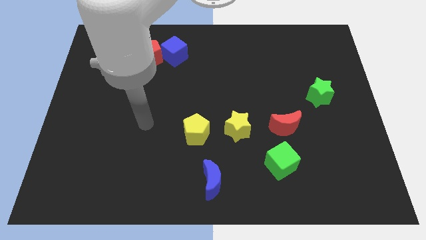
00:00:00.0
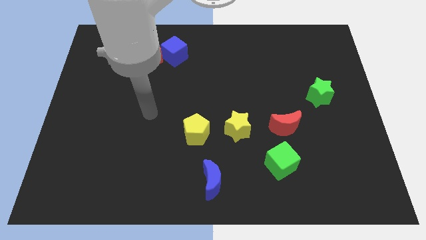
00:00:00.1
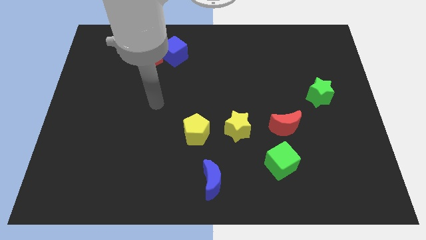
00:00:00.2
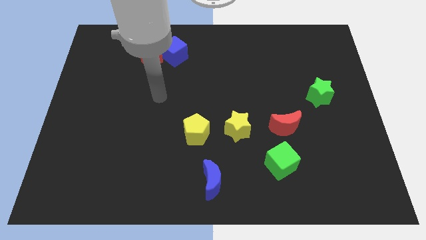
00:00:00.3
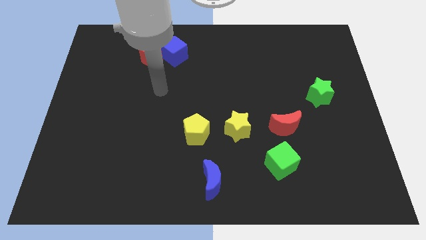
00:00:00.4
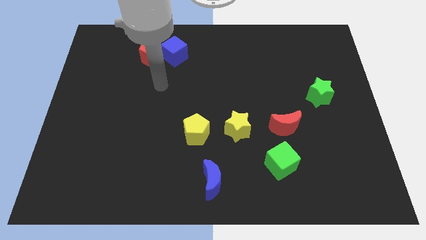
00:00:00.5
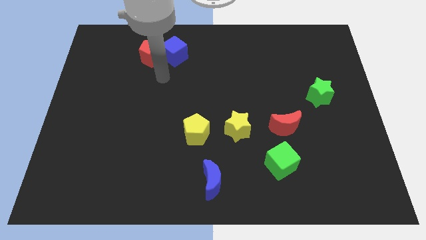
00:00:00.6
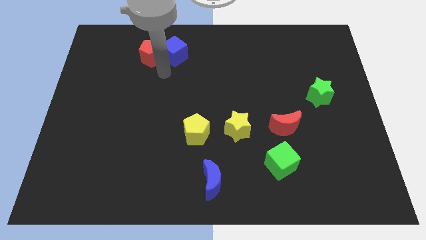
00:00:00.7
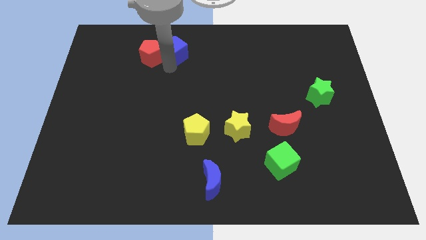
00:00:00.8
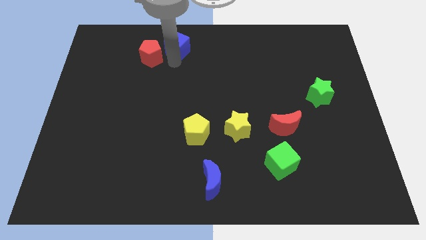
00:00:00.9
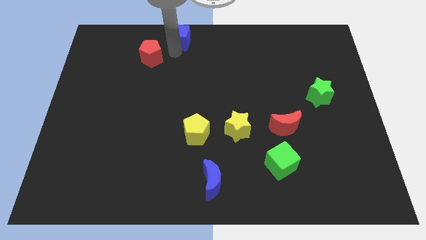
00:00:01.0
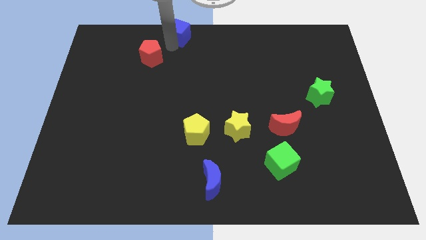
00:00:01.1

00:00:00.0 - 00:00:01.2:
pull the red pentagon apart from the blue cube

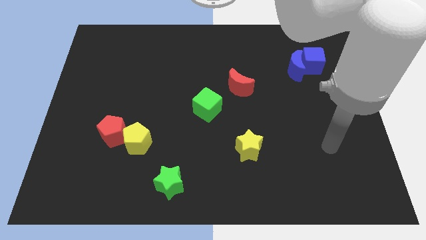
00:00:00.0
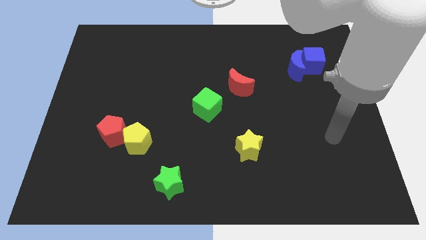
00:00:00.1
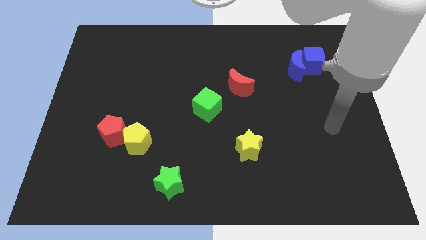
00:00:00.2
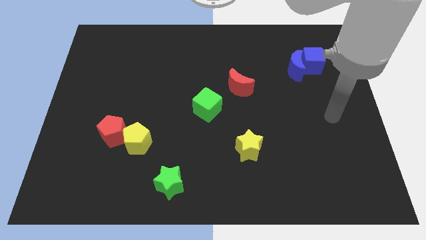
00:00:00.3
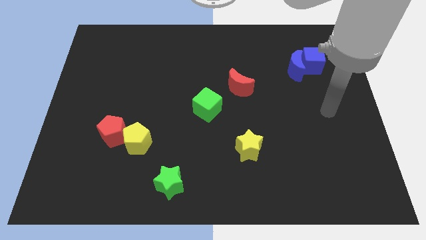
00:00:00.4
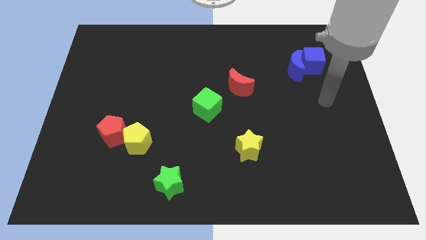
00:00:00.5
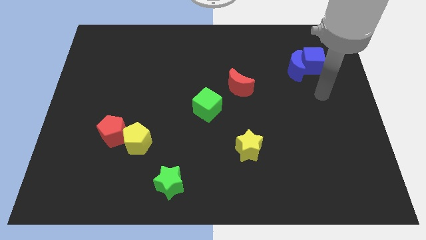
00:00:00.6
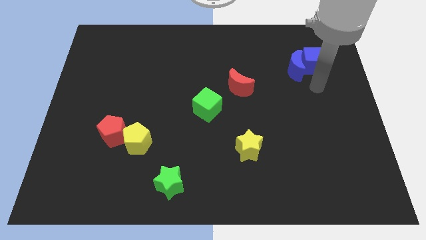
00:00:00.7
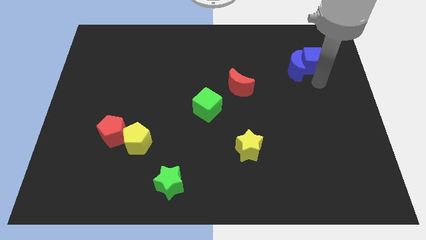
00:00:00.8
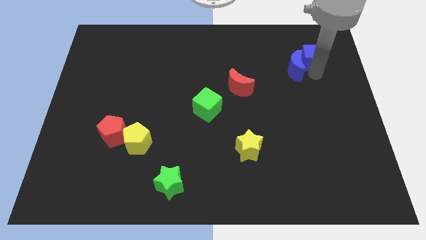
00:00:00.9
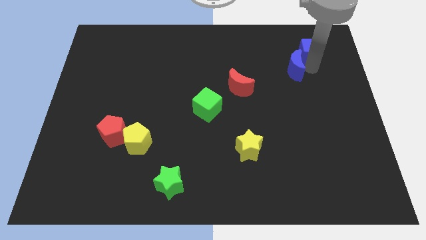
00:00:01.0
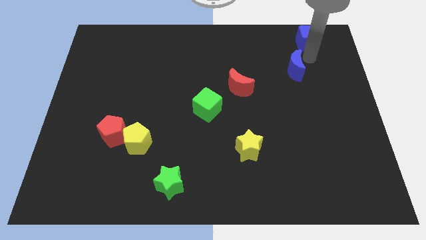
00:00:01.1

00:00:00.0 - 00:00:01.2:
separate the blue moon from the blue cube

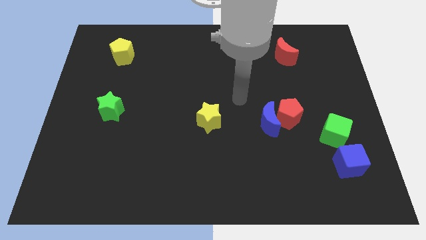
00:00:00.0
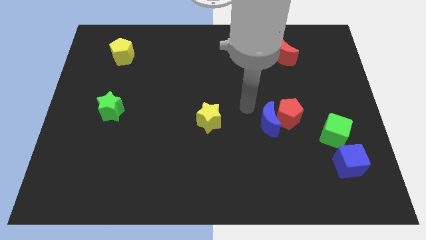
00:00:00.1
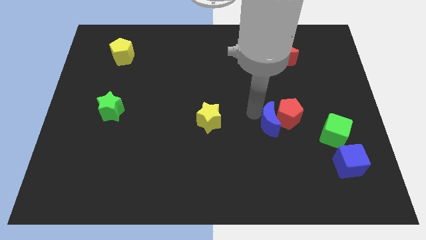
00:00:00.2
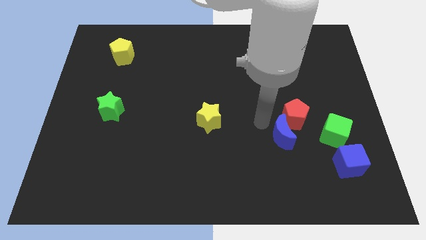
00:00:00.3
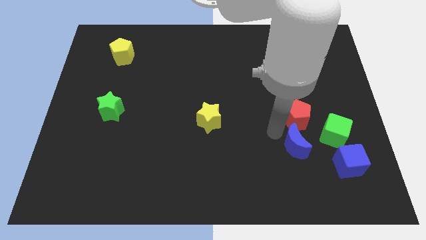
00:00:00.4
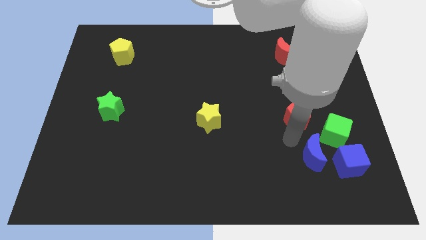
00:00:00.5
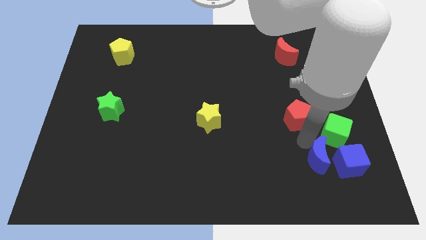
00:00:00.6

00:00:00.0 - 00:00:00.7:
move the red pentagon away from the blue moon

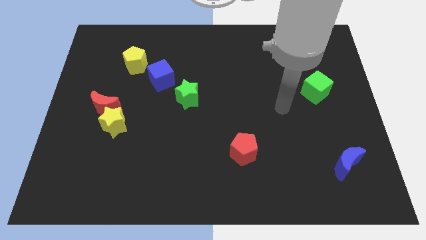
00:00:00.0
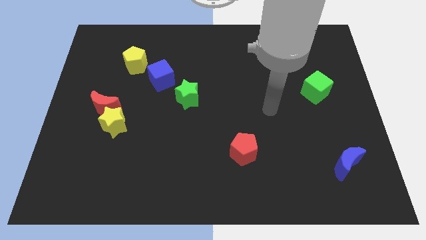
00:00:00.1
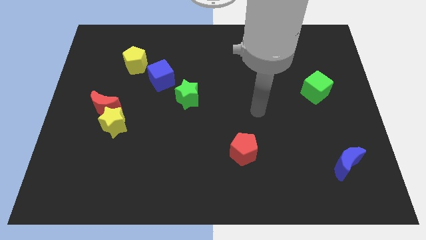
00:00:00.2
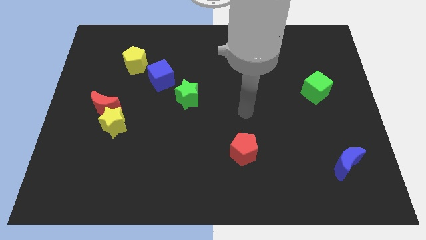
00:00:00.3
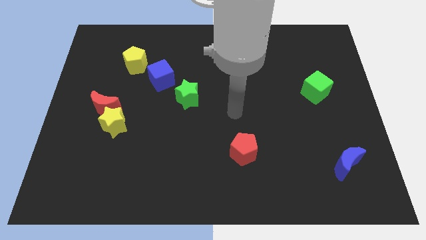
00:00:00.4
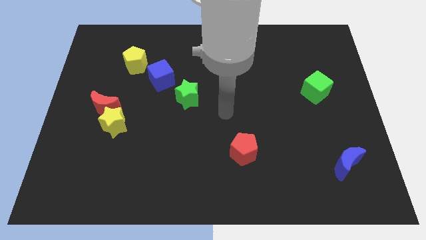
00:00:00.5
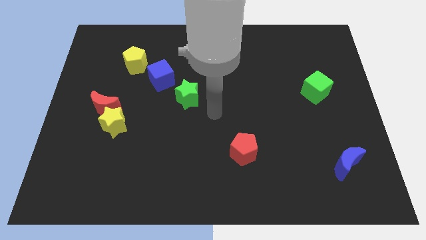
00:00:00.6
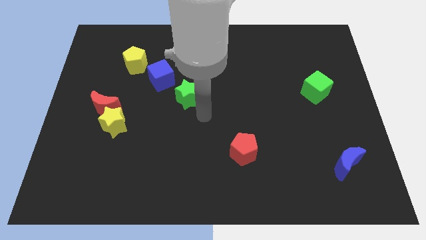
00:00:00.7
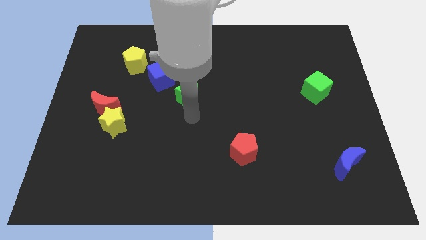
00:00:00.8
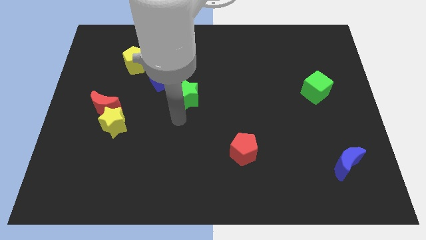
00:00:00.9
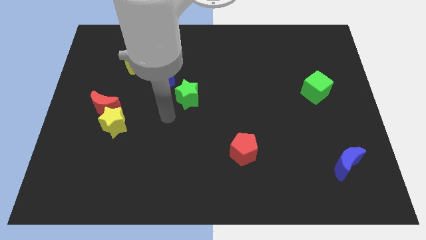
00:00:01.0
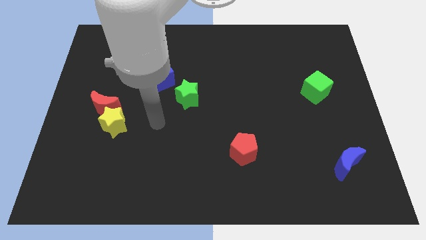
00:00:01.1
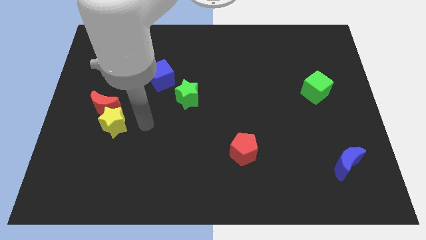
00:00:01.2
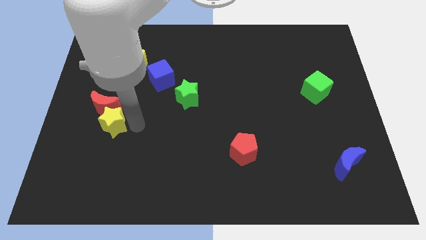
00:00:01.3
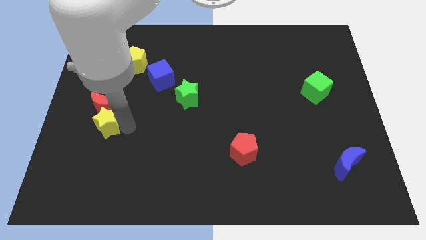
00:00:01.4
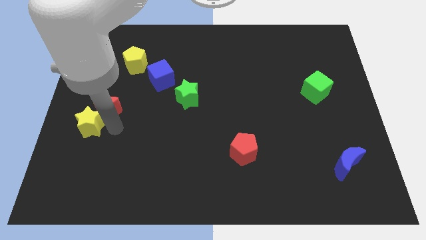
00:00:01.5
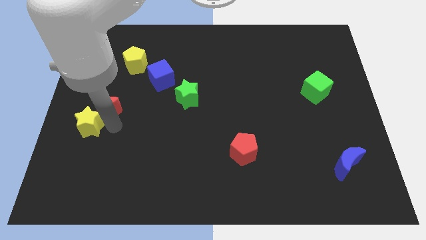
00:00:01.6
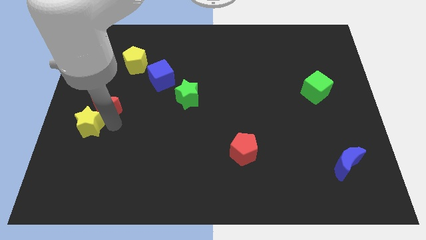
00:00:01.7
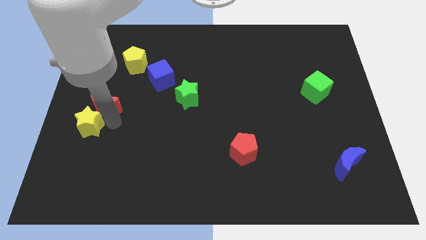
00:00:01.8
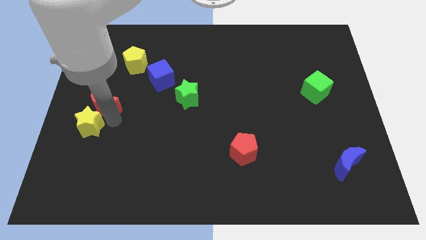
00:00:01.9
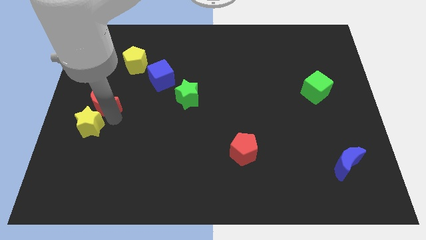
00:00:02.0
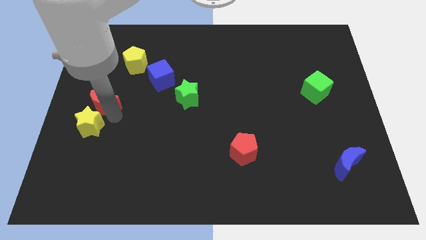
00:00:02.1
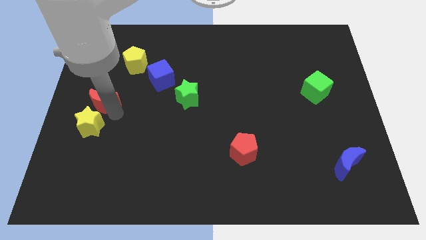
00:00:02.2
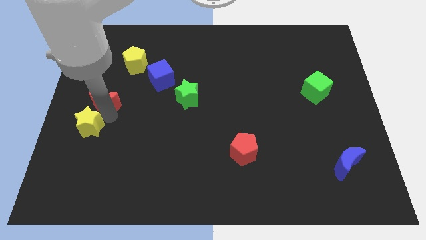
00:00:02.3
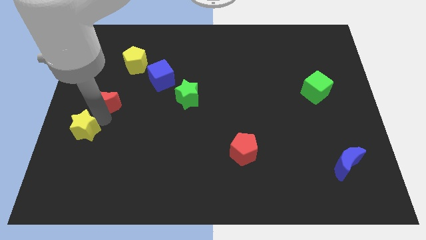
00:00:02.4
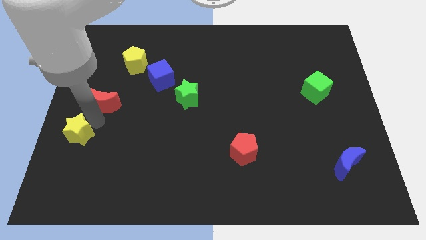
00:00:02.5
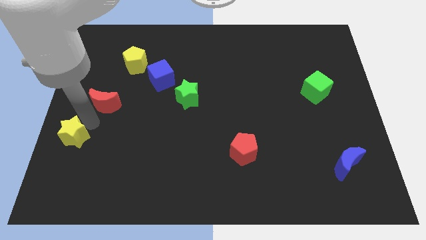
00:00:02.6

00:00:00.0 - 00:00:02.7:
pull the red moon apart from the yellow star

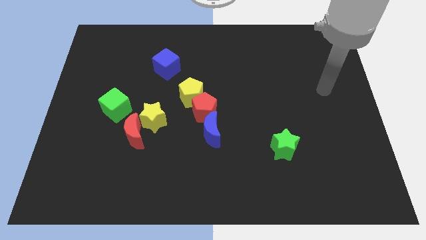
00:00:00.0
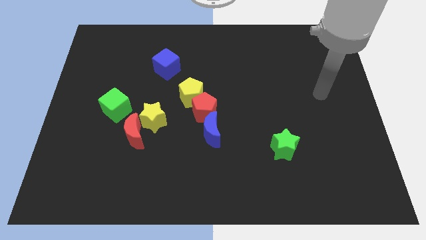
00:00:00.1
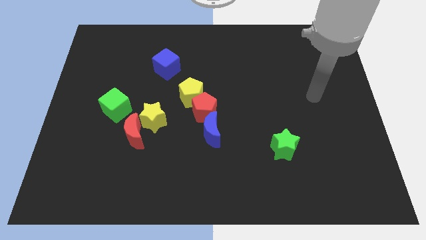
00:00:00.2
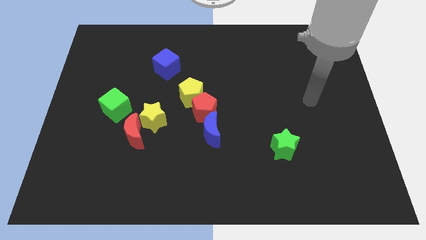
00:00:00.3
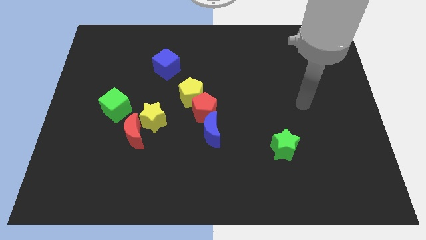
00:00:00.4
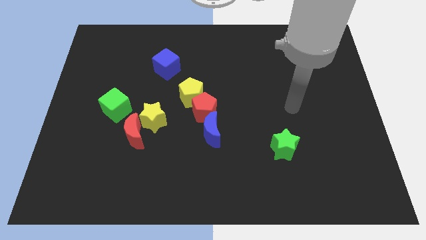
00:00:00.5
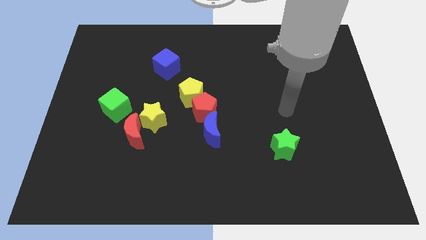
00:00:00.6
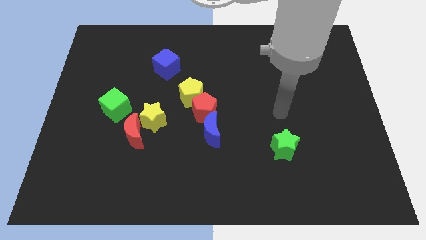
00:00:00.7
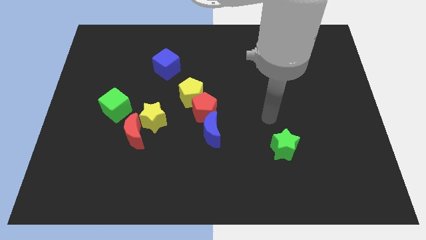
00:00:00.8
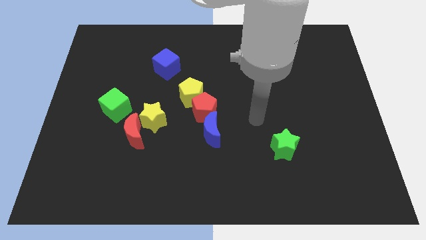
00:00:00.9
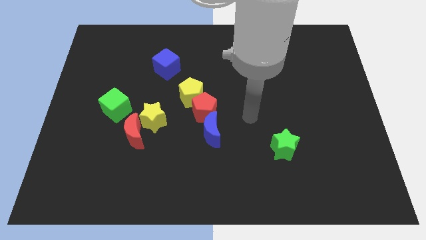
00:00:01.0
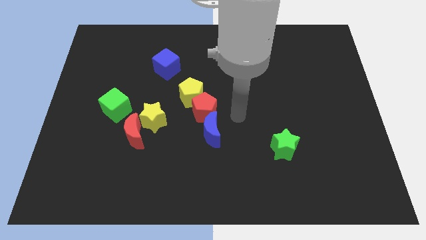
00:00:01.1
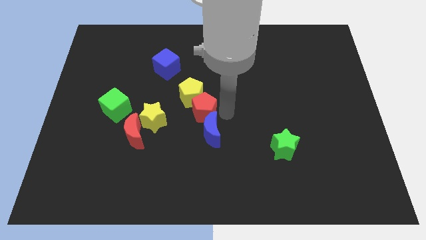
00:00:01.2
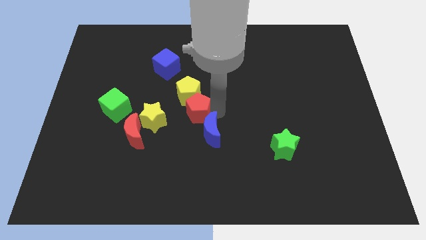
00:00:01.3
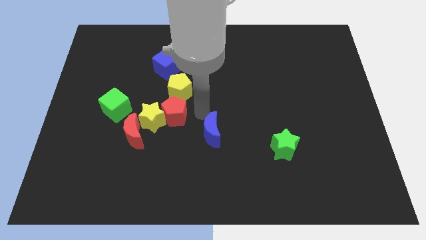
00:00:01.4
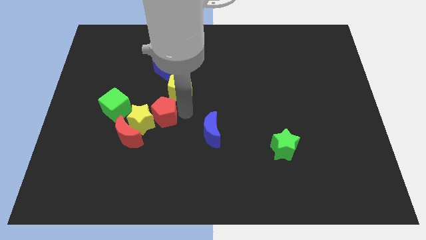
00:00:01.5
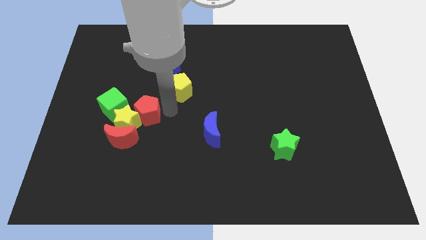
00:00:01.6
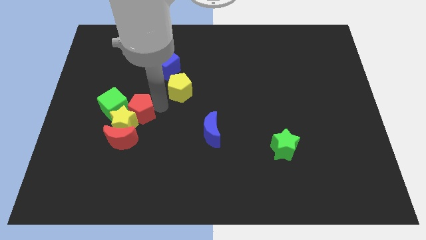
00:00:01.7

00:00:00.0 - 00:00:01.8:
separate the yellow pentagon from the red pentagon

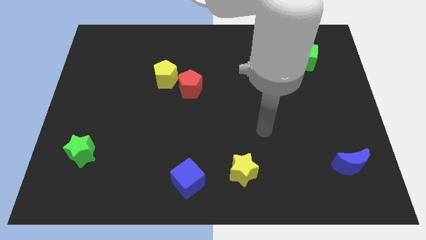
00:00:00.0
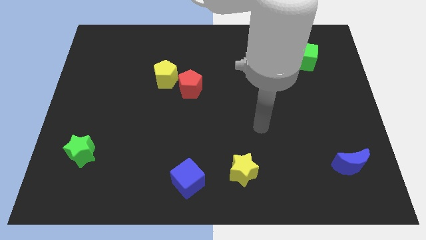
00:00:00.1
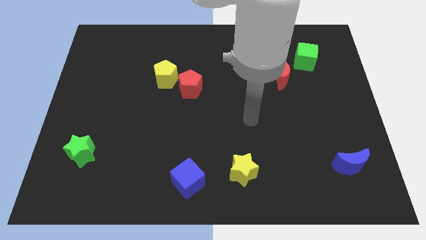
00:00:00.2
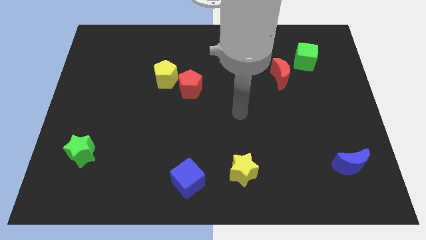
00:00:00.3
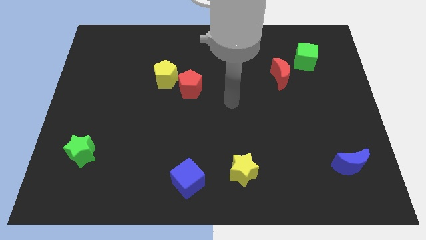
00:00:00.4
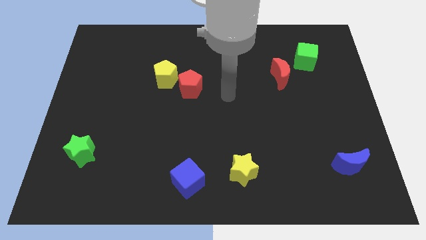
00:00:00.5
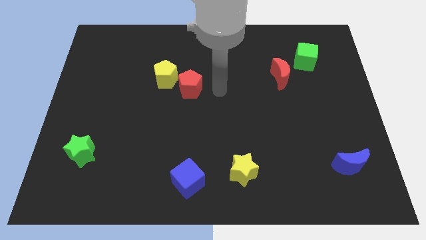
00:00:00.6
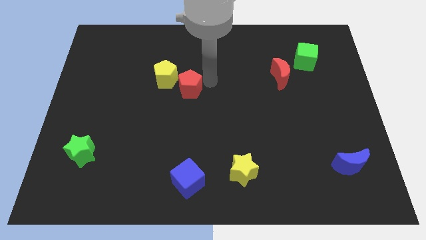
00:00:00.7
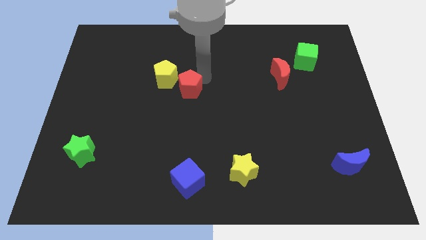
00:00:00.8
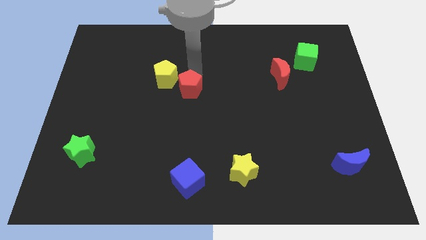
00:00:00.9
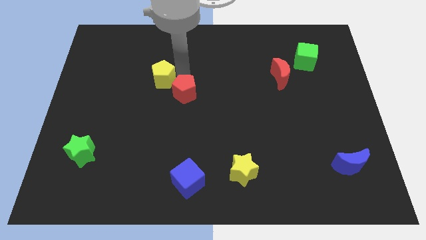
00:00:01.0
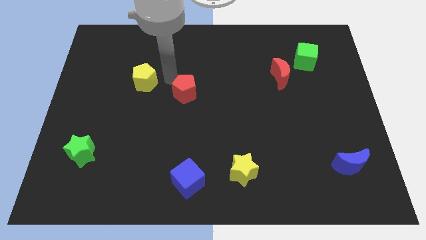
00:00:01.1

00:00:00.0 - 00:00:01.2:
pull the red pentagon apart from the yellow pentagon

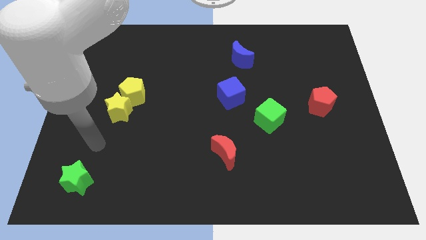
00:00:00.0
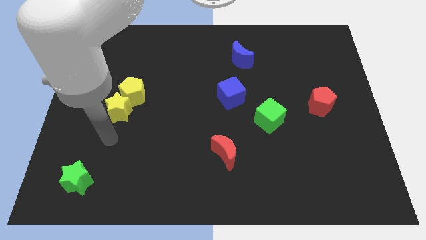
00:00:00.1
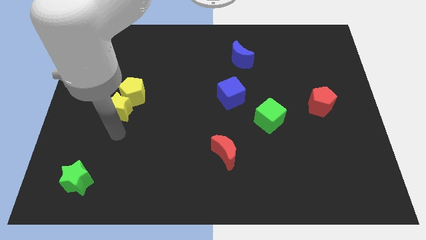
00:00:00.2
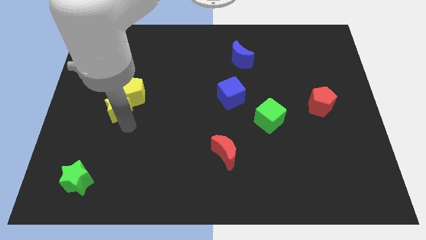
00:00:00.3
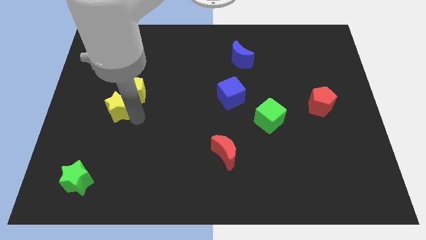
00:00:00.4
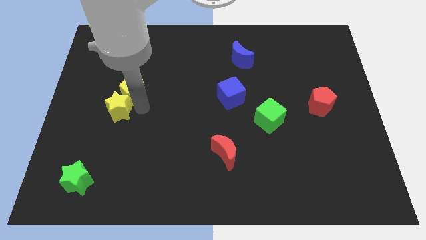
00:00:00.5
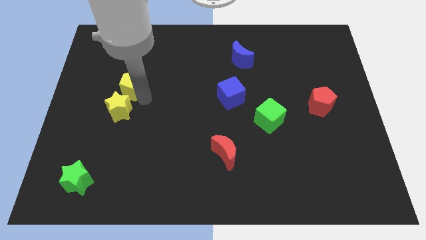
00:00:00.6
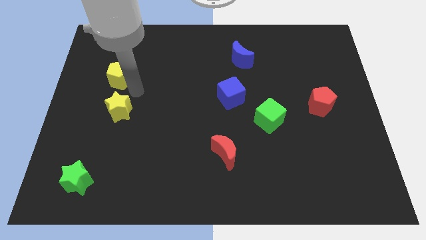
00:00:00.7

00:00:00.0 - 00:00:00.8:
separate the yellow star from the yellow pentagon
